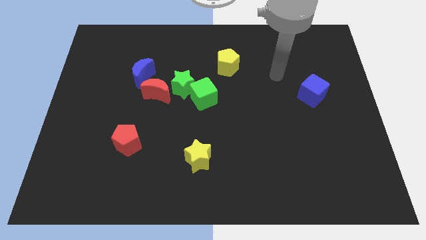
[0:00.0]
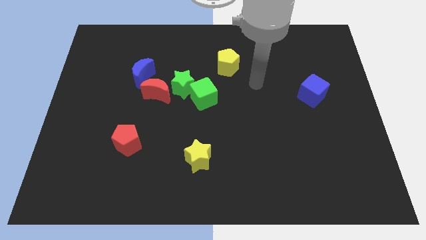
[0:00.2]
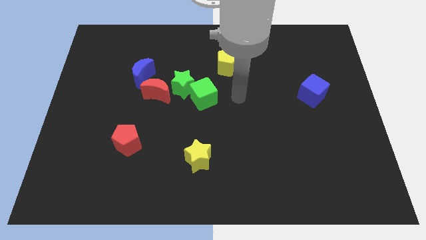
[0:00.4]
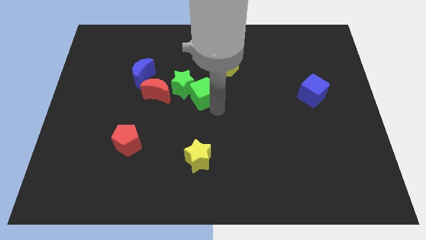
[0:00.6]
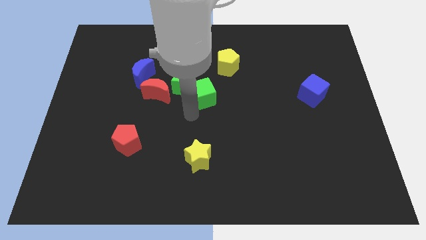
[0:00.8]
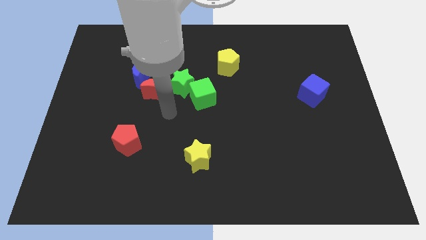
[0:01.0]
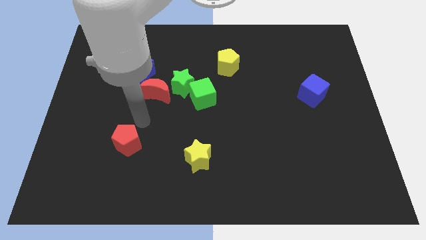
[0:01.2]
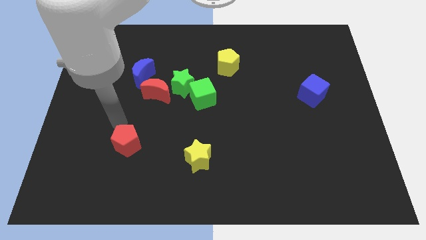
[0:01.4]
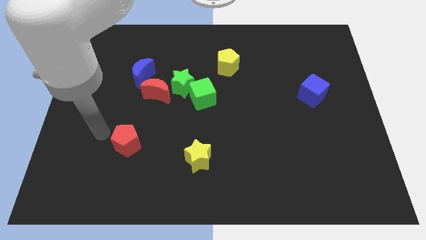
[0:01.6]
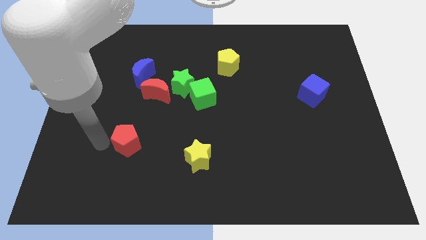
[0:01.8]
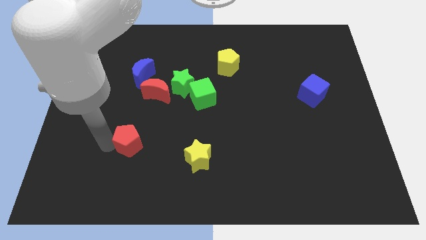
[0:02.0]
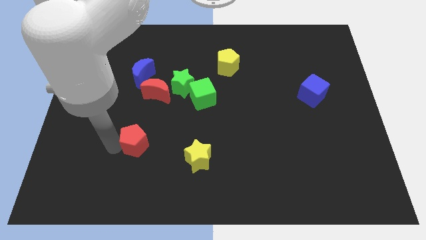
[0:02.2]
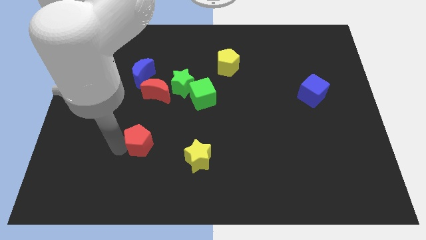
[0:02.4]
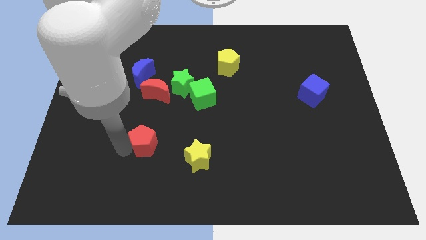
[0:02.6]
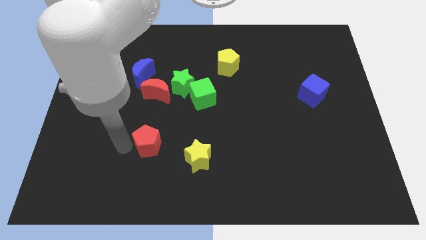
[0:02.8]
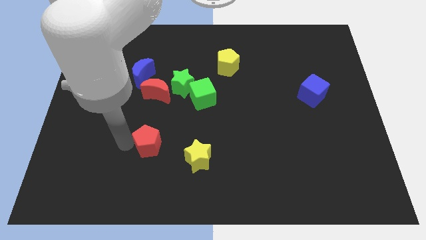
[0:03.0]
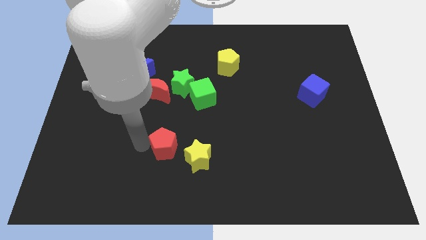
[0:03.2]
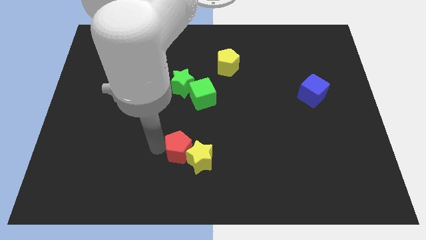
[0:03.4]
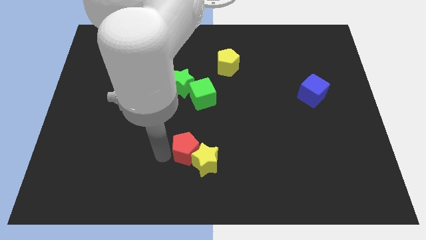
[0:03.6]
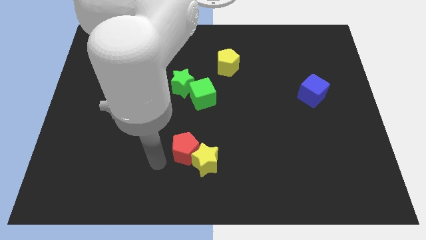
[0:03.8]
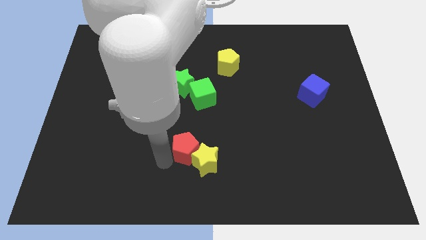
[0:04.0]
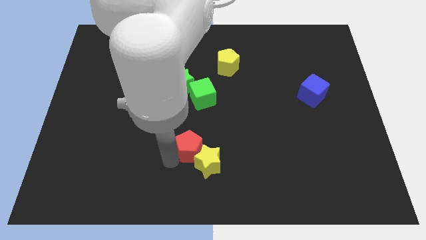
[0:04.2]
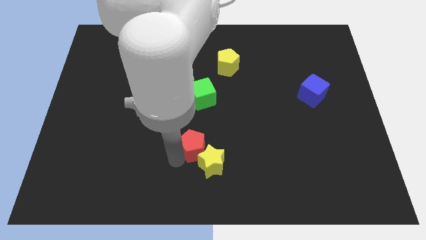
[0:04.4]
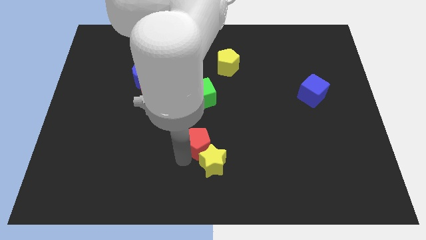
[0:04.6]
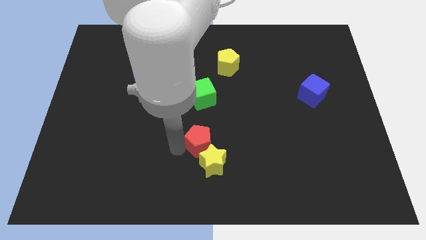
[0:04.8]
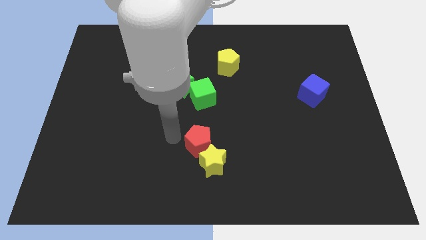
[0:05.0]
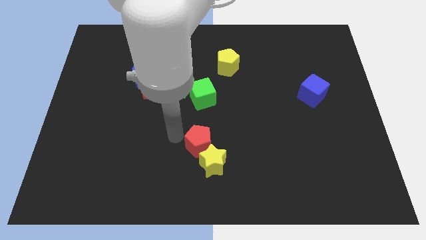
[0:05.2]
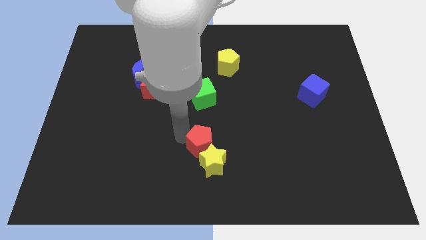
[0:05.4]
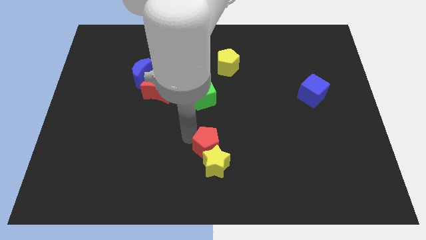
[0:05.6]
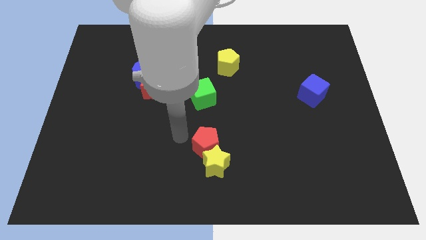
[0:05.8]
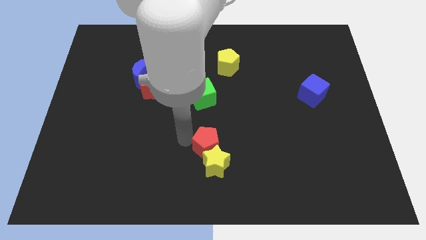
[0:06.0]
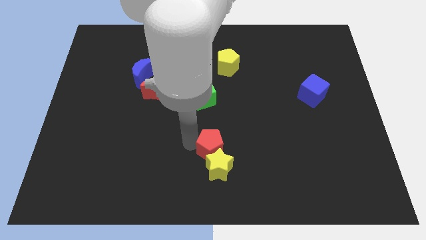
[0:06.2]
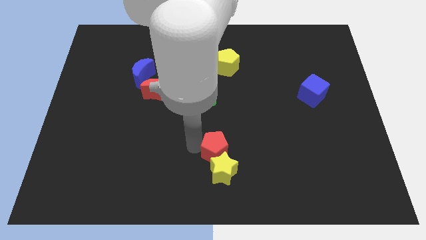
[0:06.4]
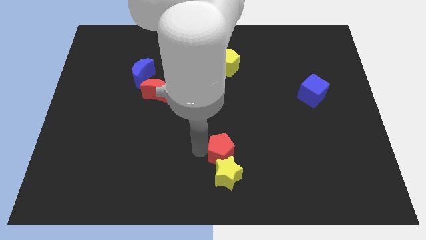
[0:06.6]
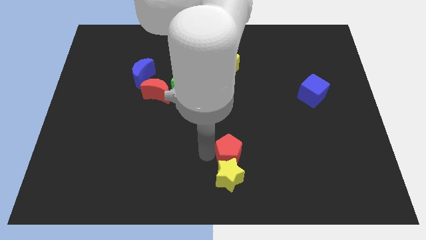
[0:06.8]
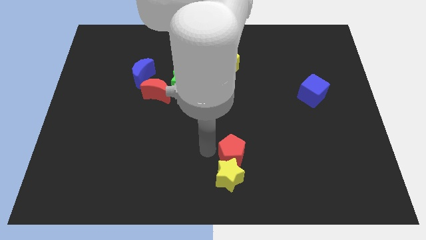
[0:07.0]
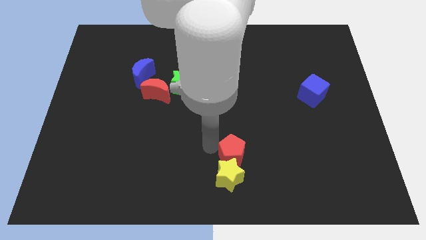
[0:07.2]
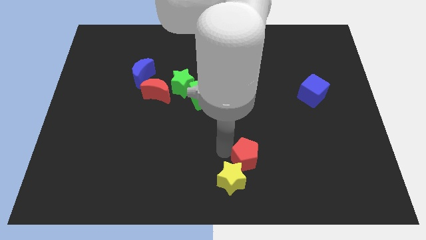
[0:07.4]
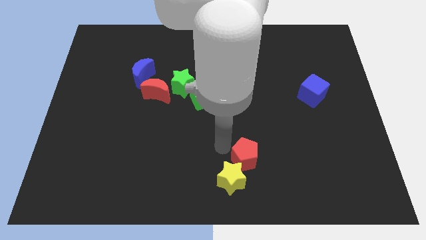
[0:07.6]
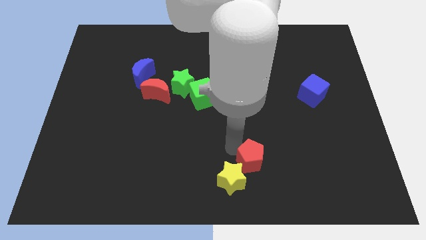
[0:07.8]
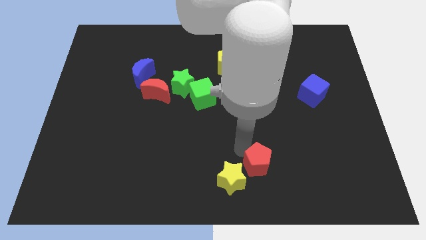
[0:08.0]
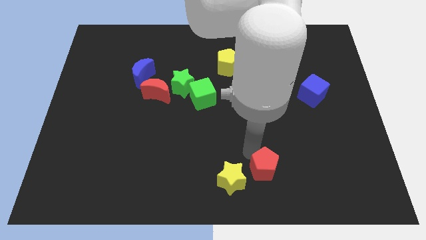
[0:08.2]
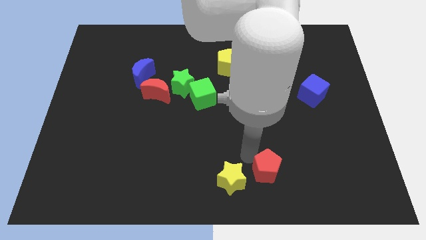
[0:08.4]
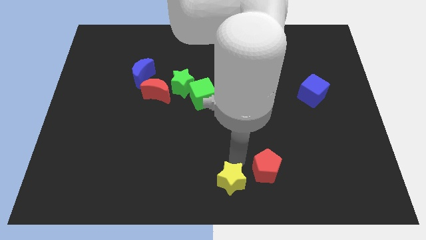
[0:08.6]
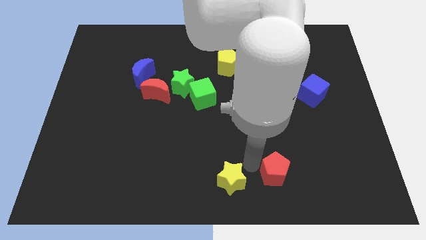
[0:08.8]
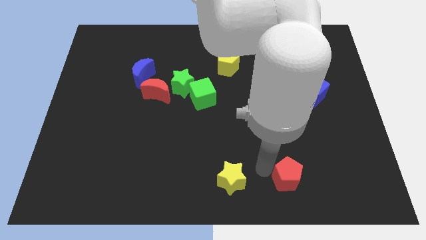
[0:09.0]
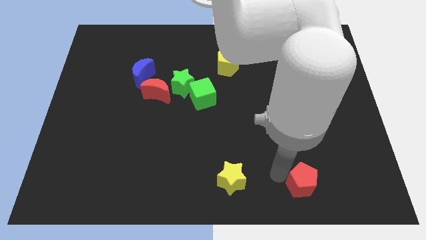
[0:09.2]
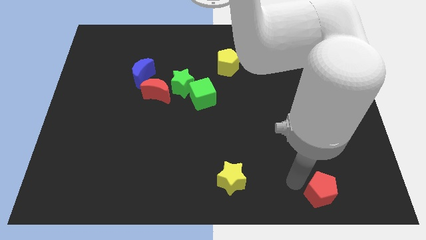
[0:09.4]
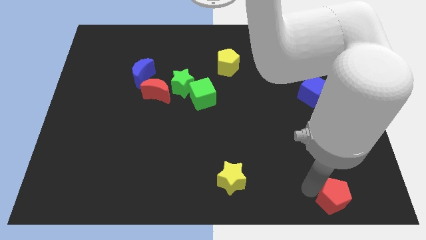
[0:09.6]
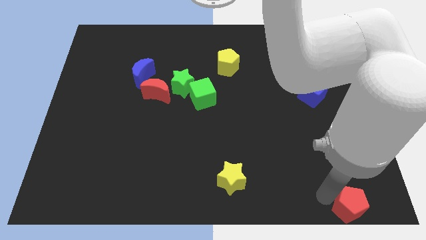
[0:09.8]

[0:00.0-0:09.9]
put the red pentagon to the bottom right of the board

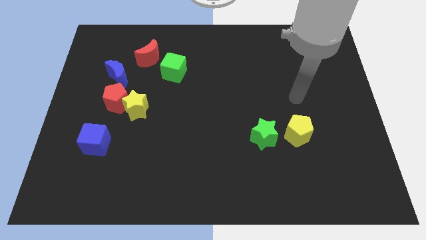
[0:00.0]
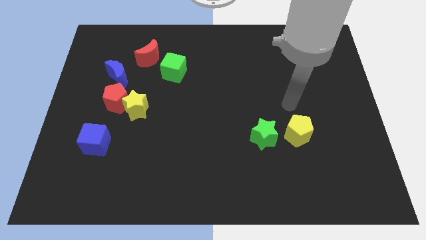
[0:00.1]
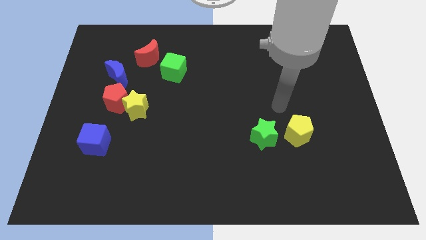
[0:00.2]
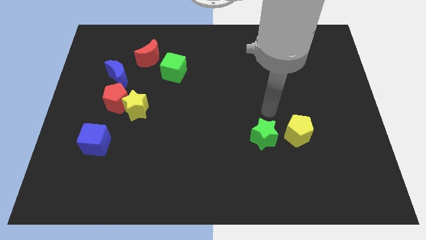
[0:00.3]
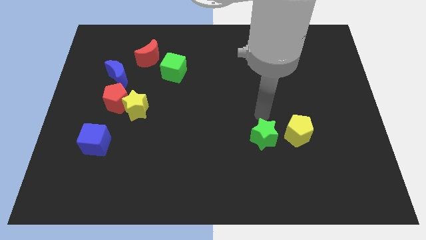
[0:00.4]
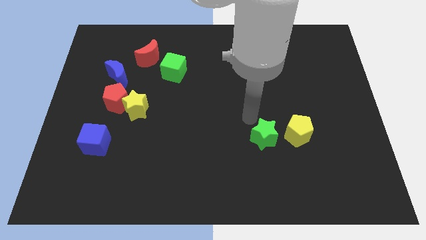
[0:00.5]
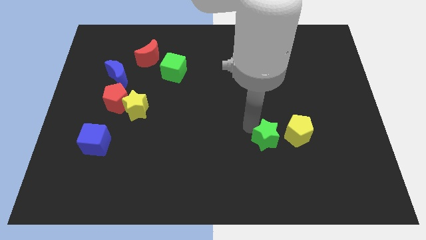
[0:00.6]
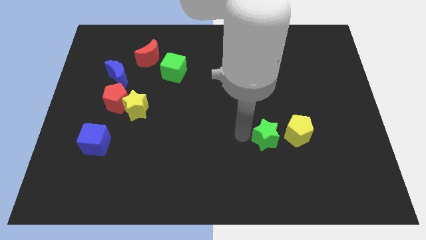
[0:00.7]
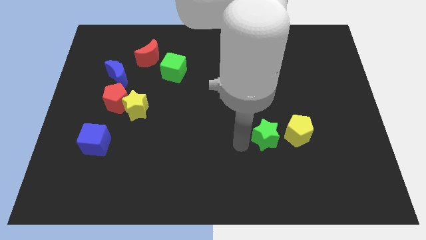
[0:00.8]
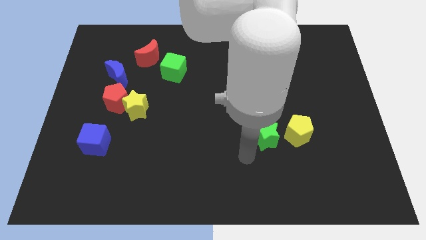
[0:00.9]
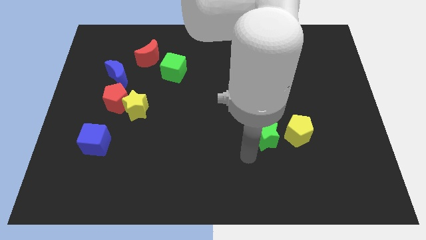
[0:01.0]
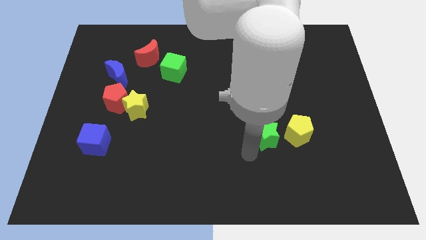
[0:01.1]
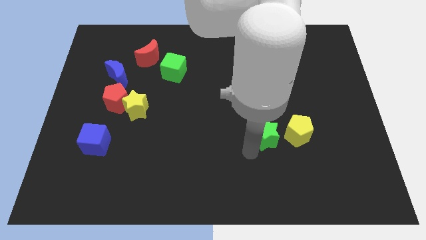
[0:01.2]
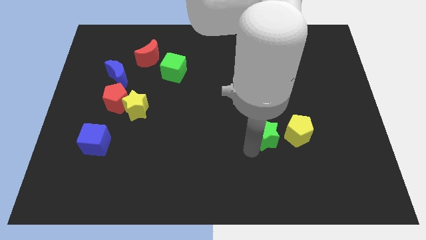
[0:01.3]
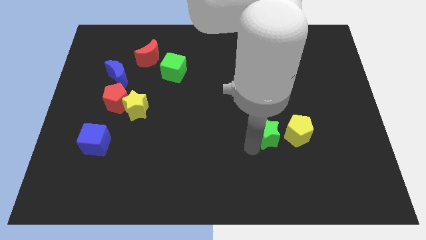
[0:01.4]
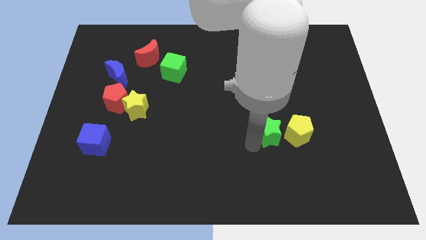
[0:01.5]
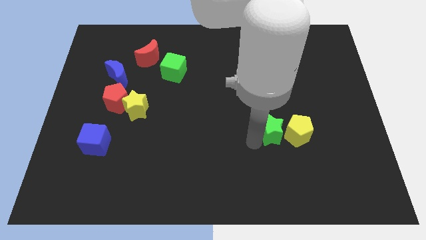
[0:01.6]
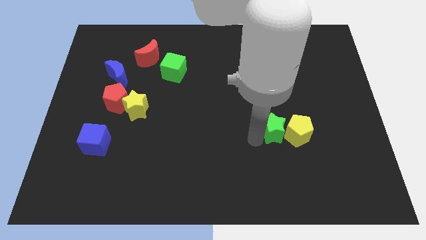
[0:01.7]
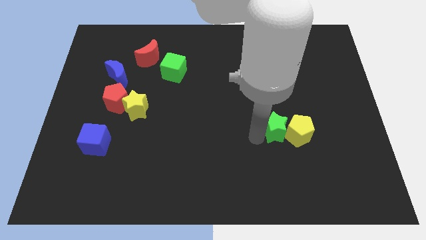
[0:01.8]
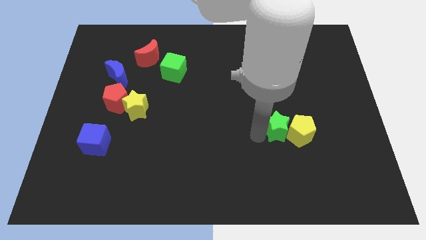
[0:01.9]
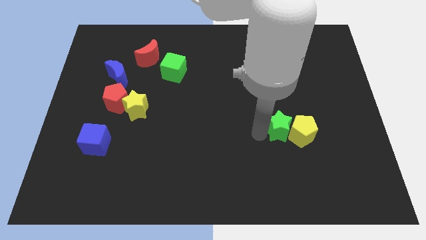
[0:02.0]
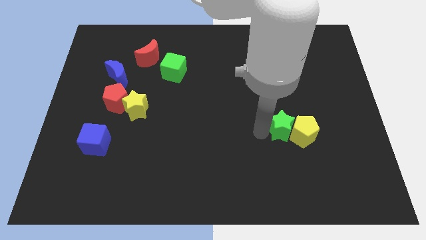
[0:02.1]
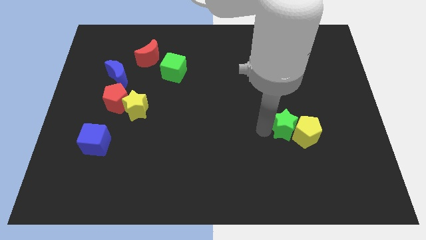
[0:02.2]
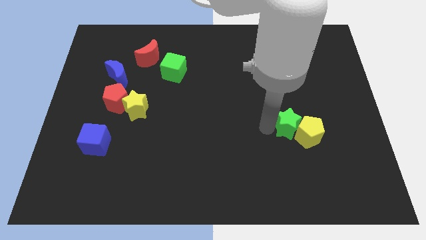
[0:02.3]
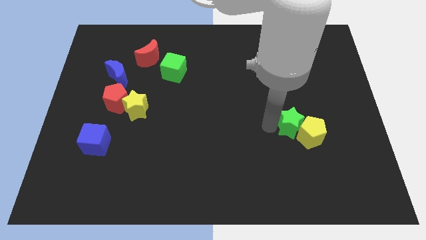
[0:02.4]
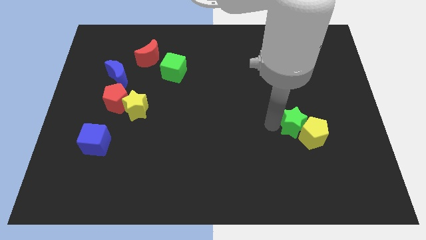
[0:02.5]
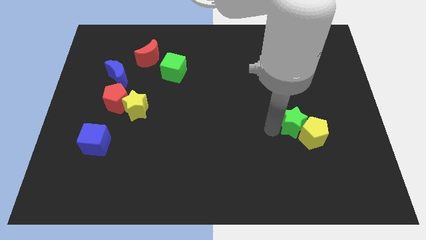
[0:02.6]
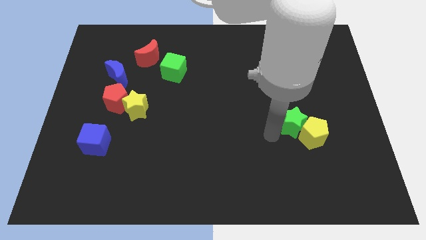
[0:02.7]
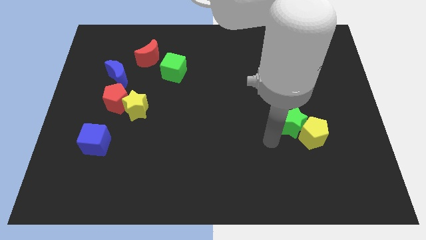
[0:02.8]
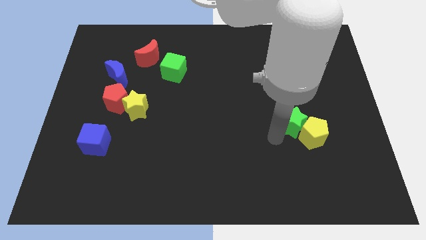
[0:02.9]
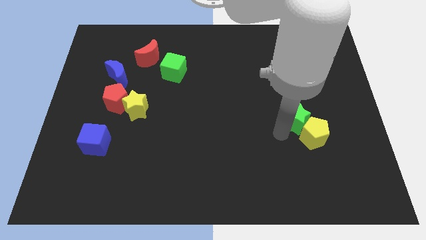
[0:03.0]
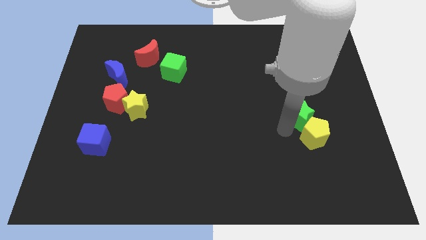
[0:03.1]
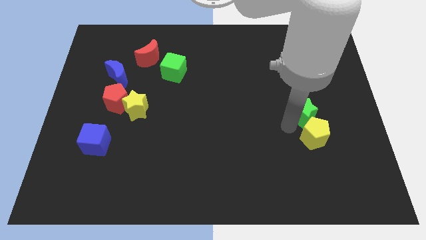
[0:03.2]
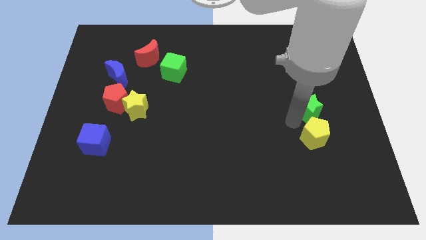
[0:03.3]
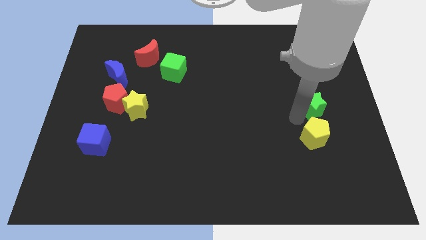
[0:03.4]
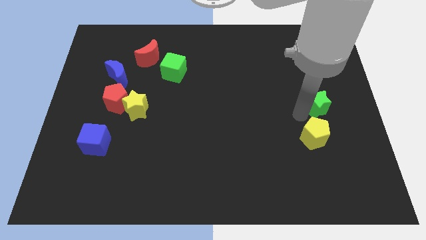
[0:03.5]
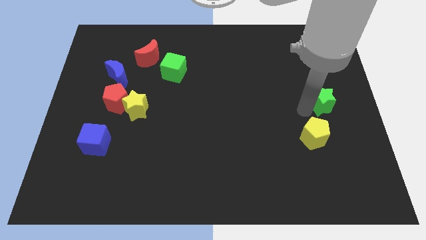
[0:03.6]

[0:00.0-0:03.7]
put the green star to the center right
